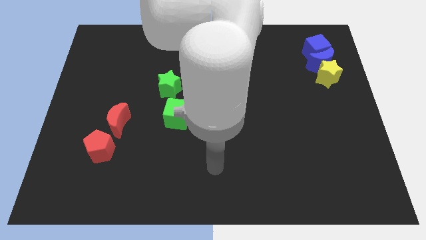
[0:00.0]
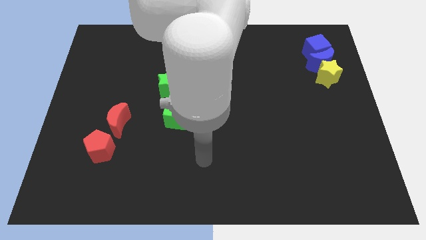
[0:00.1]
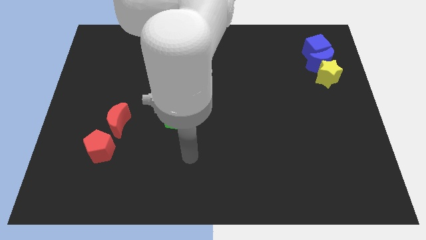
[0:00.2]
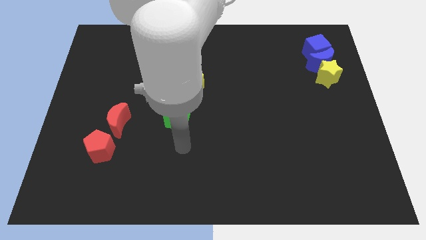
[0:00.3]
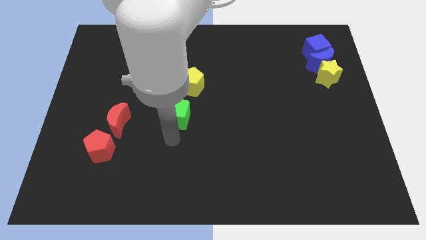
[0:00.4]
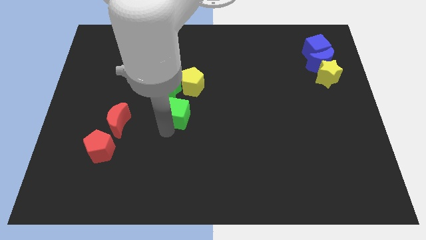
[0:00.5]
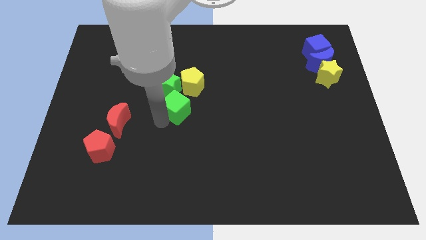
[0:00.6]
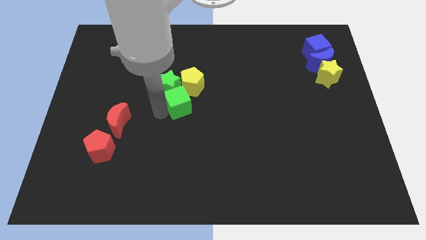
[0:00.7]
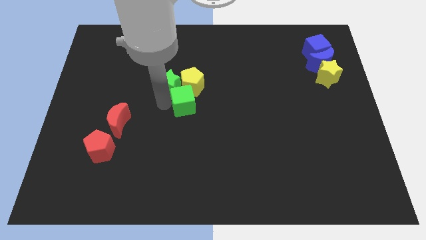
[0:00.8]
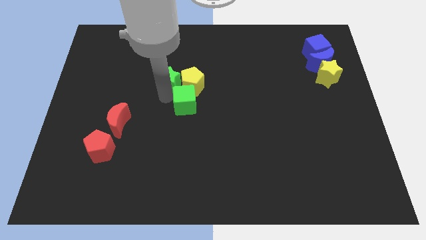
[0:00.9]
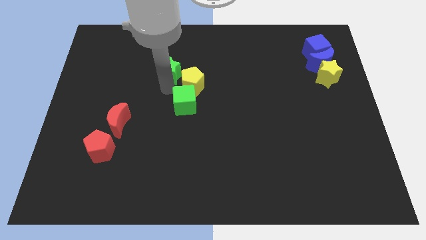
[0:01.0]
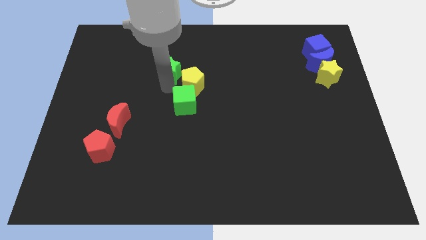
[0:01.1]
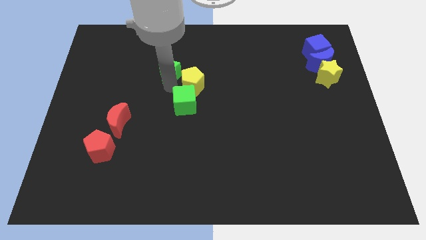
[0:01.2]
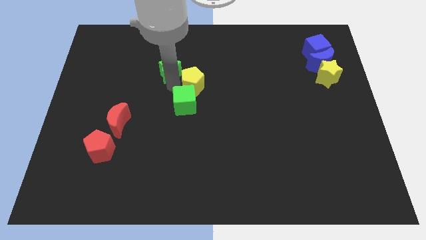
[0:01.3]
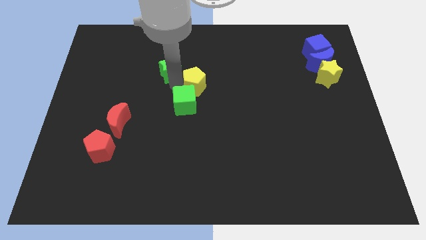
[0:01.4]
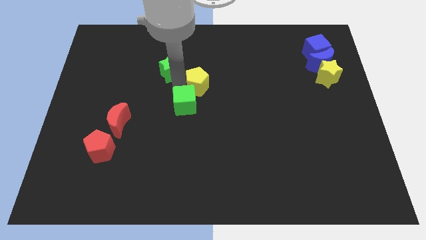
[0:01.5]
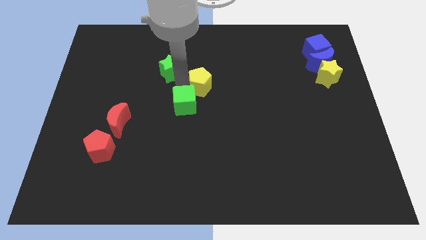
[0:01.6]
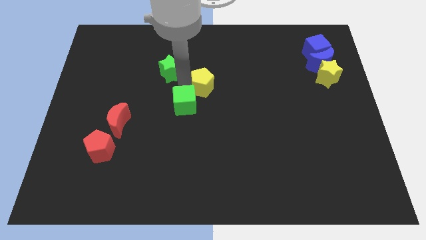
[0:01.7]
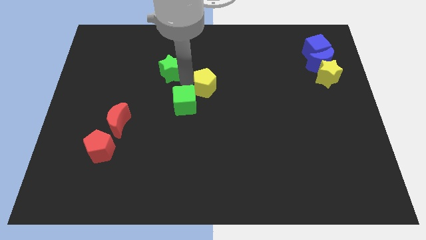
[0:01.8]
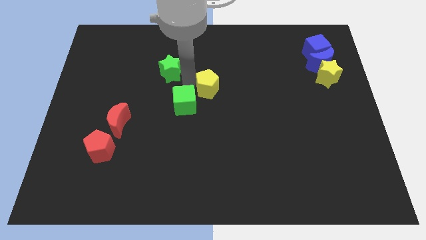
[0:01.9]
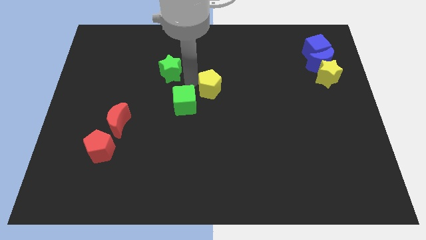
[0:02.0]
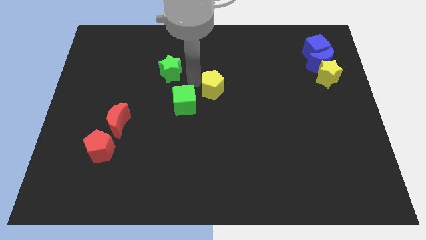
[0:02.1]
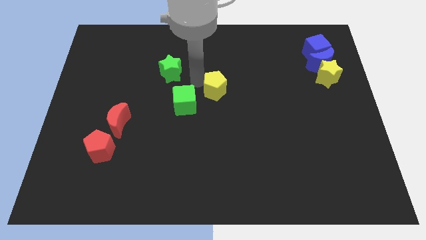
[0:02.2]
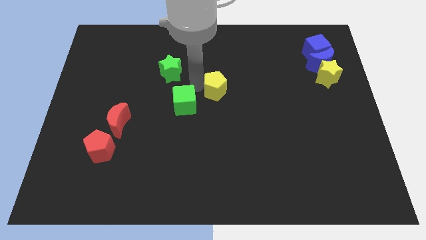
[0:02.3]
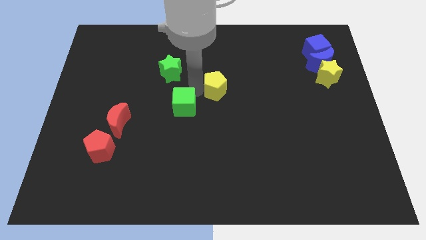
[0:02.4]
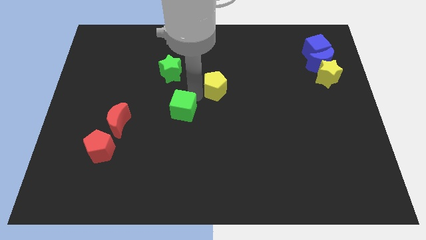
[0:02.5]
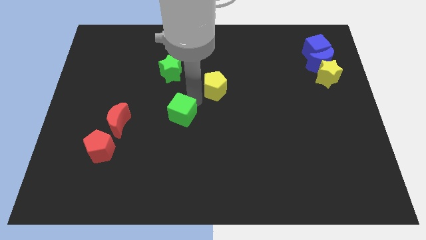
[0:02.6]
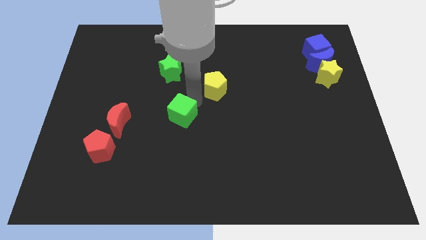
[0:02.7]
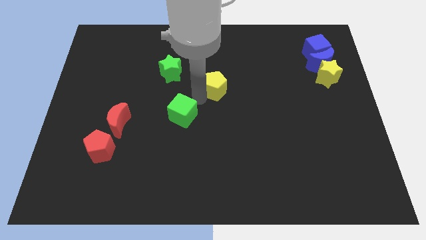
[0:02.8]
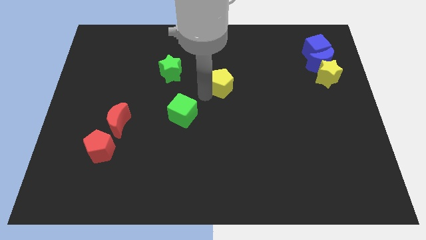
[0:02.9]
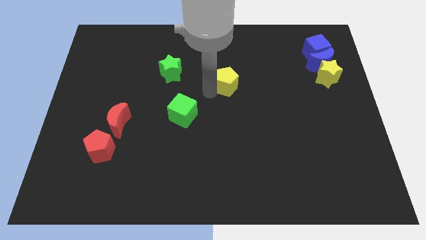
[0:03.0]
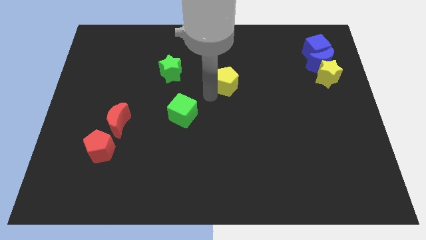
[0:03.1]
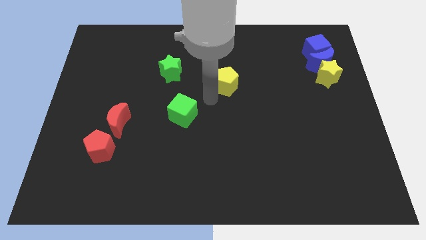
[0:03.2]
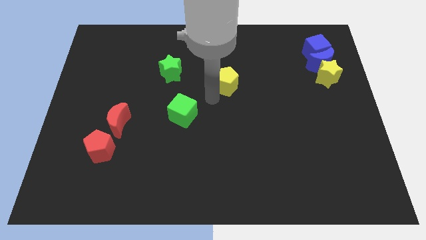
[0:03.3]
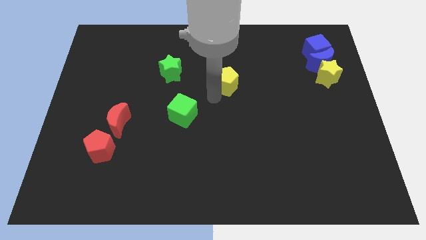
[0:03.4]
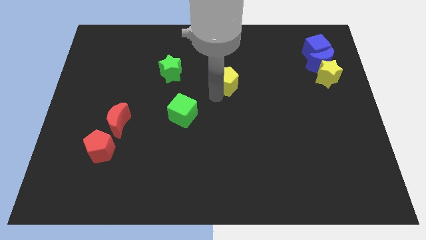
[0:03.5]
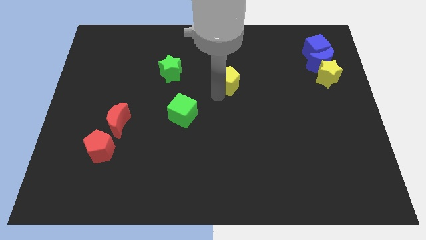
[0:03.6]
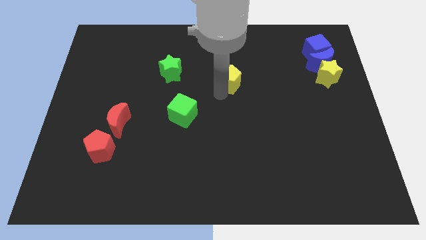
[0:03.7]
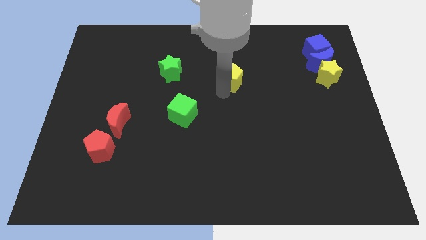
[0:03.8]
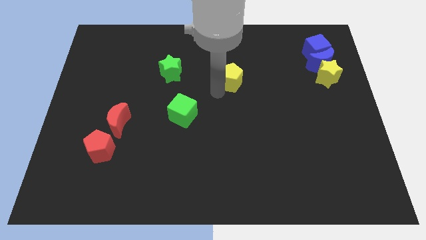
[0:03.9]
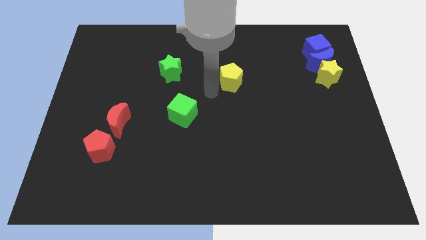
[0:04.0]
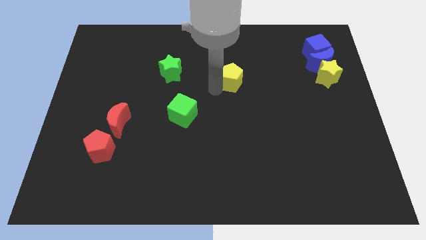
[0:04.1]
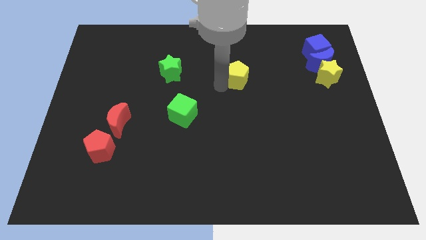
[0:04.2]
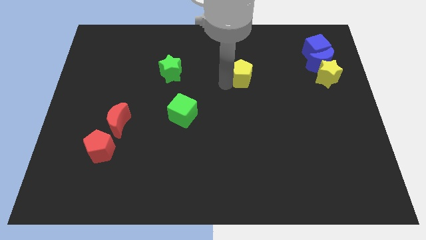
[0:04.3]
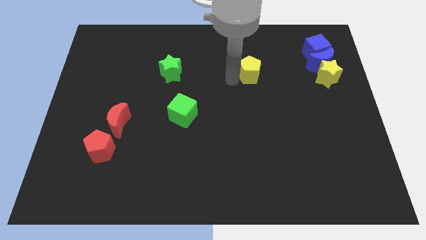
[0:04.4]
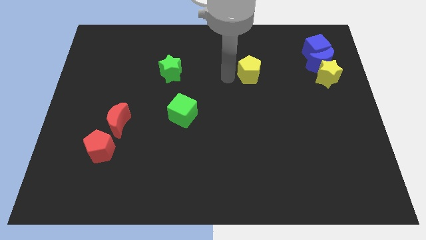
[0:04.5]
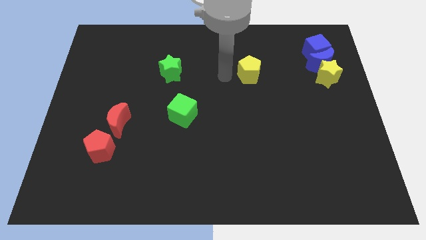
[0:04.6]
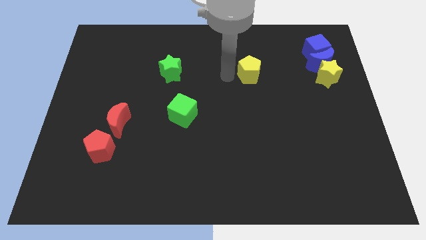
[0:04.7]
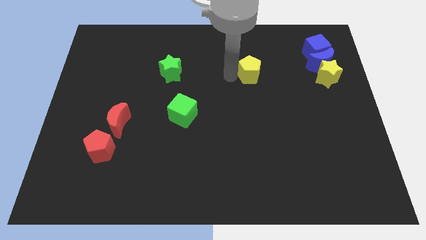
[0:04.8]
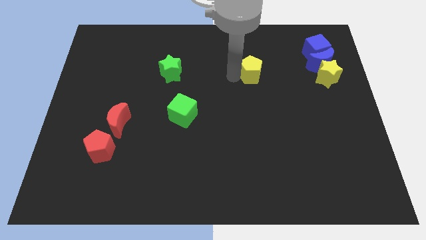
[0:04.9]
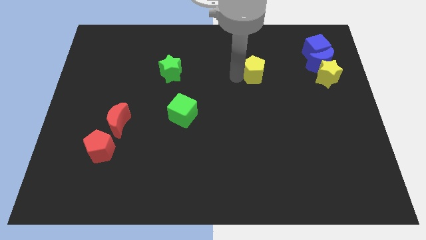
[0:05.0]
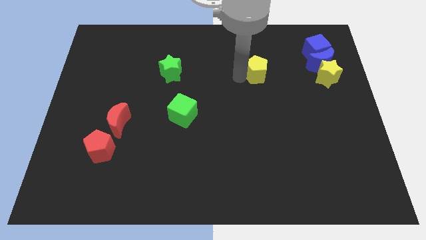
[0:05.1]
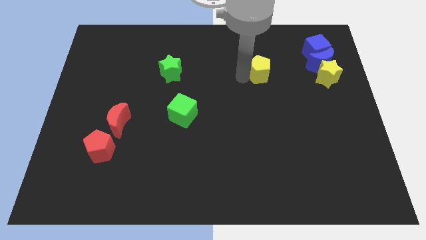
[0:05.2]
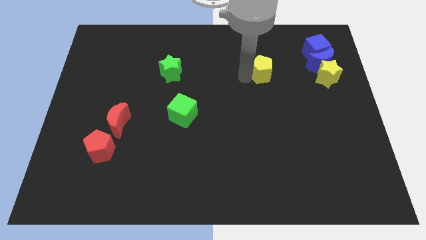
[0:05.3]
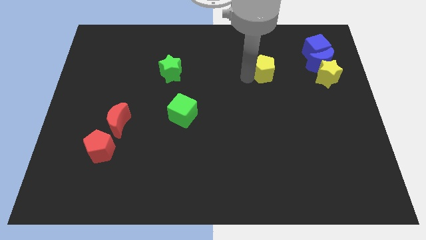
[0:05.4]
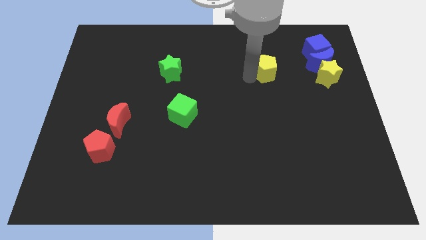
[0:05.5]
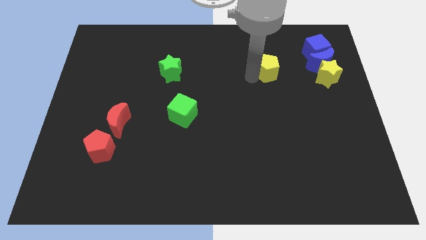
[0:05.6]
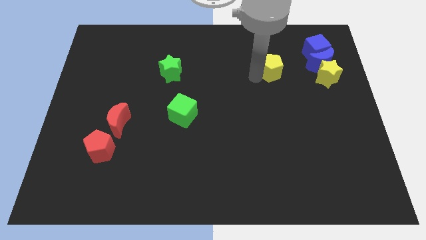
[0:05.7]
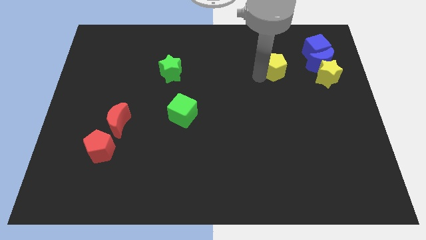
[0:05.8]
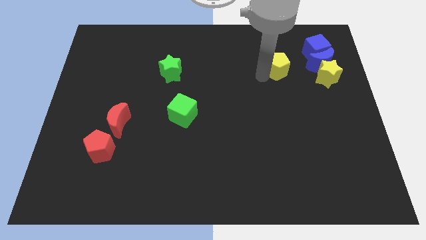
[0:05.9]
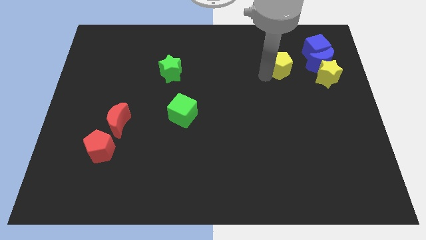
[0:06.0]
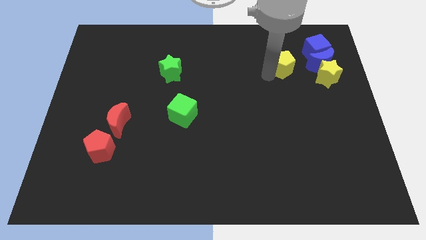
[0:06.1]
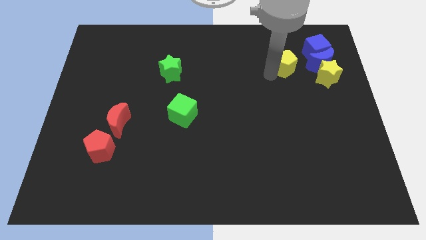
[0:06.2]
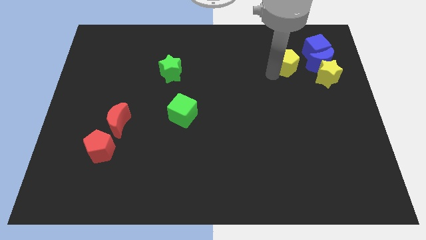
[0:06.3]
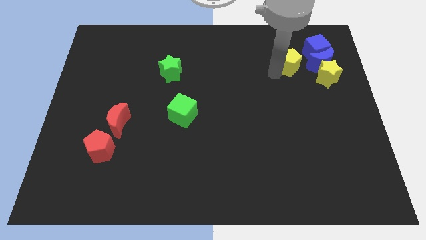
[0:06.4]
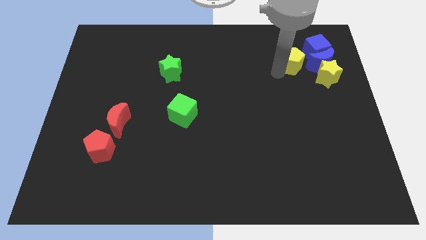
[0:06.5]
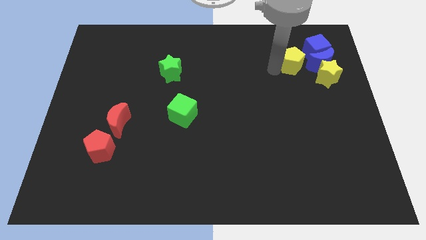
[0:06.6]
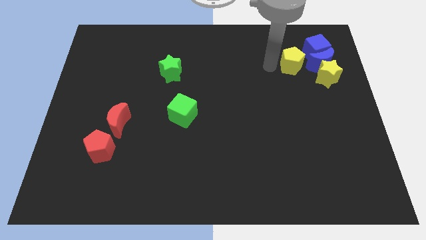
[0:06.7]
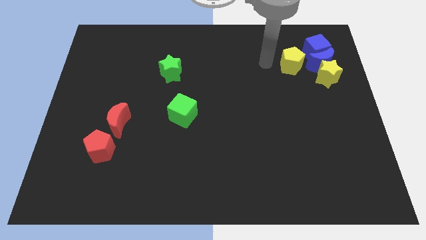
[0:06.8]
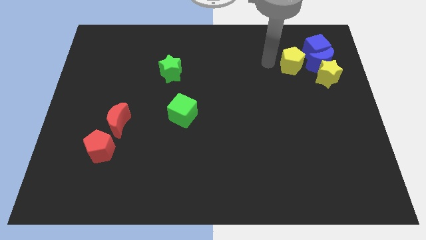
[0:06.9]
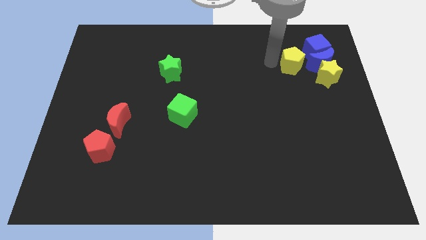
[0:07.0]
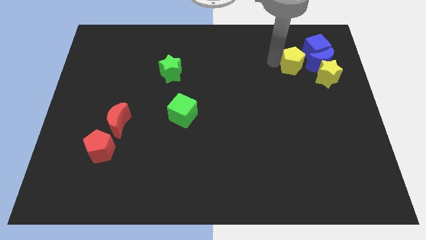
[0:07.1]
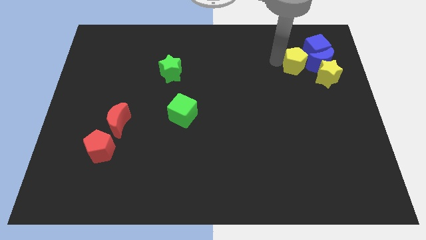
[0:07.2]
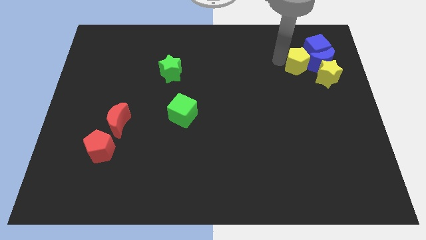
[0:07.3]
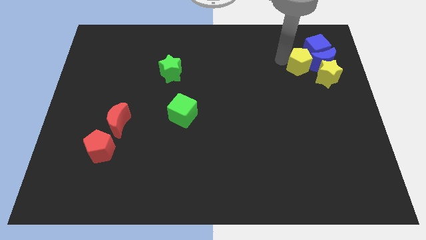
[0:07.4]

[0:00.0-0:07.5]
push the yellow pentagon towards the blue moon
